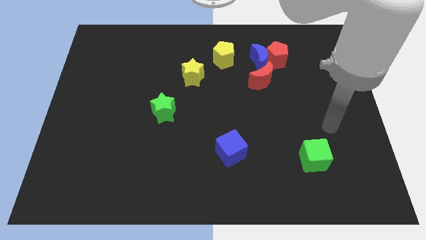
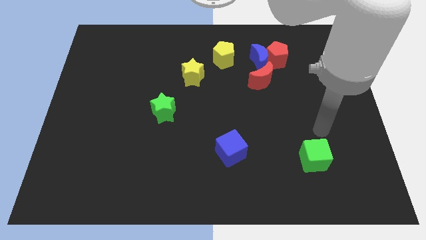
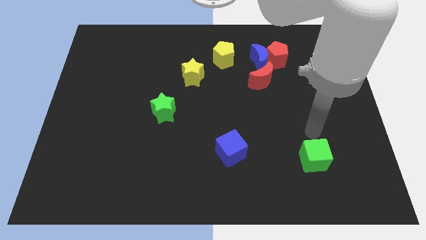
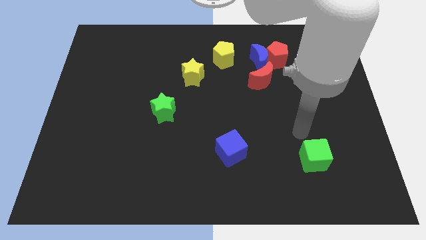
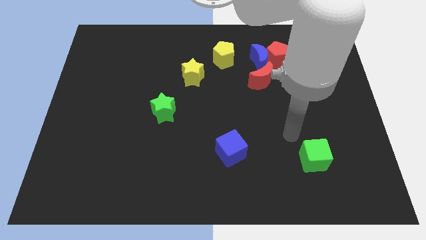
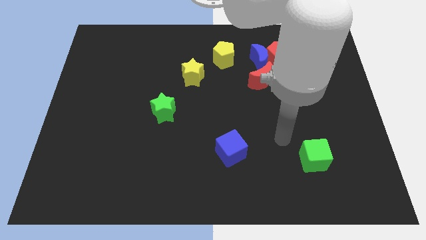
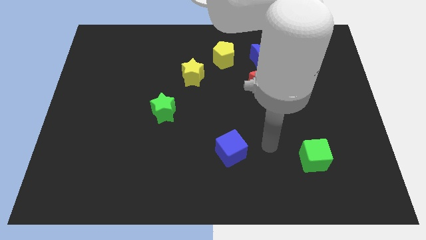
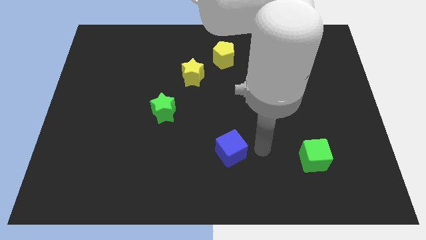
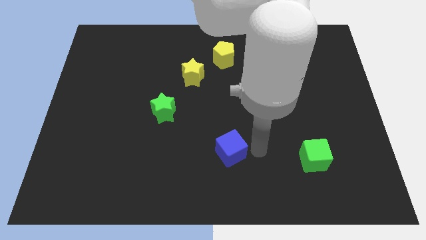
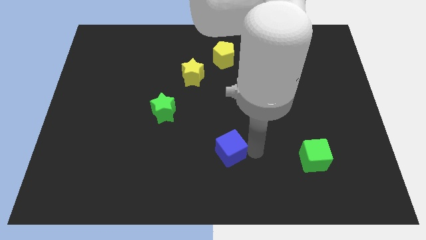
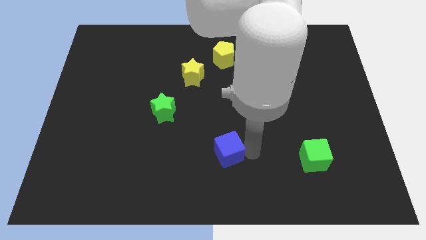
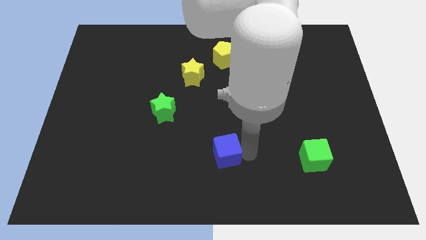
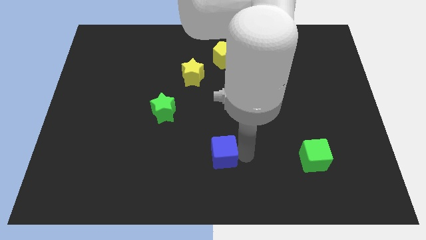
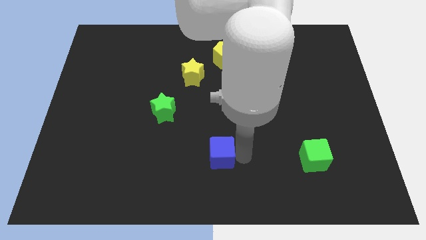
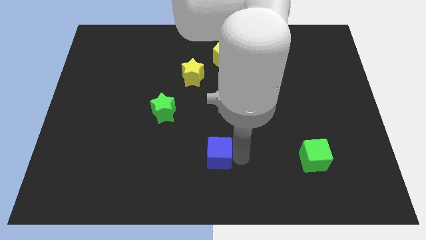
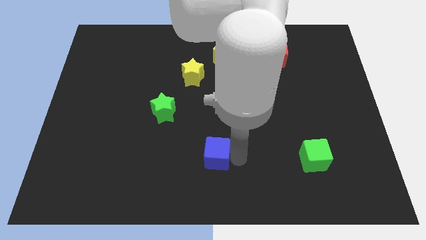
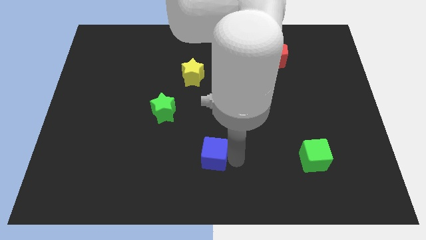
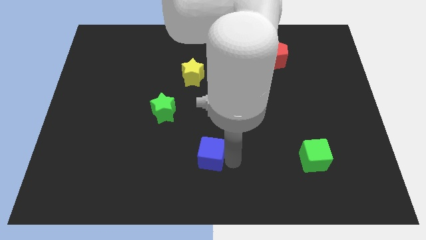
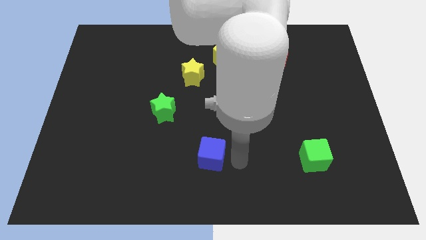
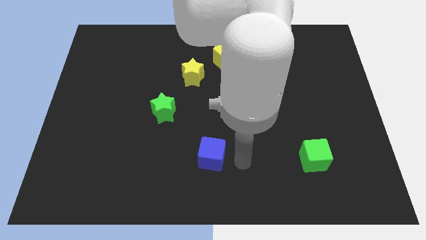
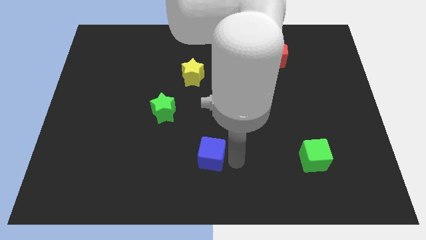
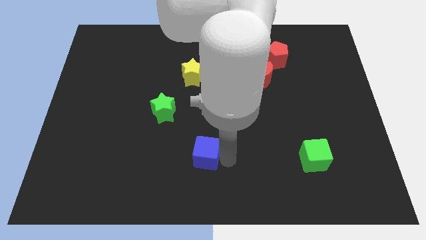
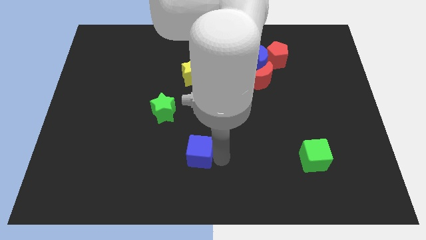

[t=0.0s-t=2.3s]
slightly push the blue cube to the left

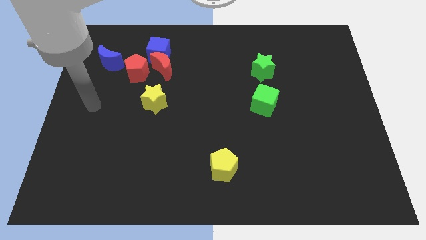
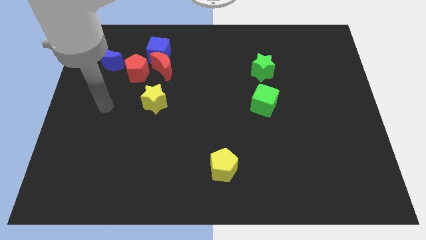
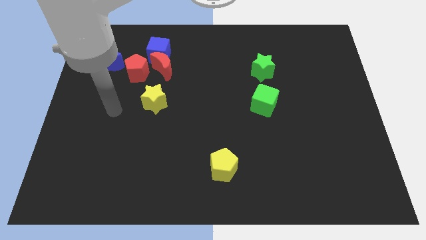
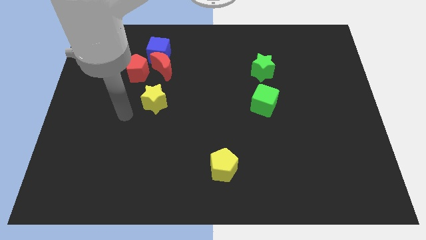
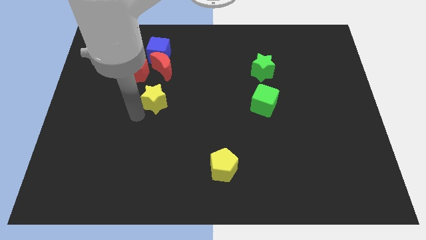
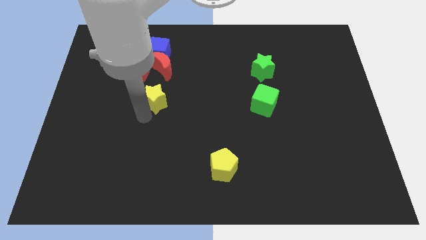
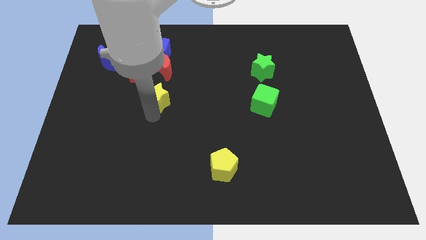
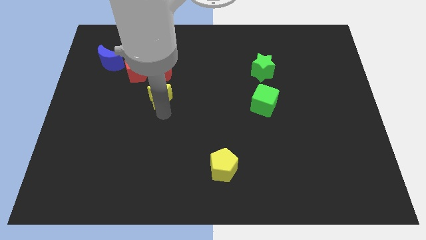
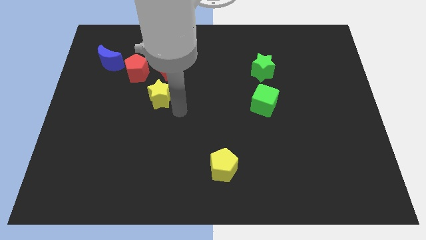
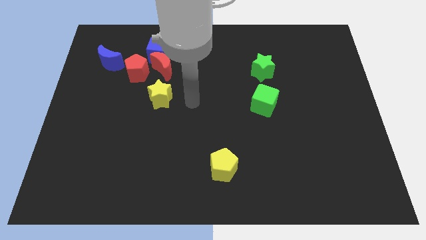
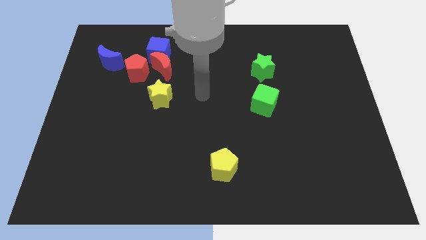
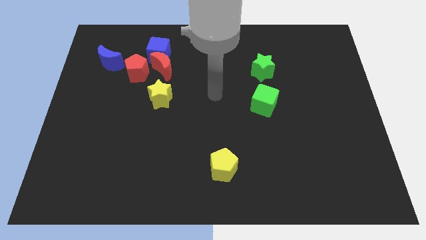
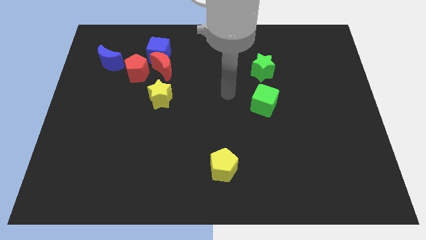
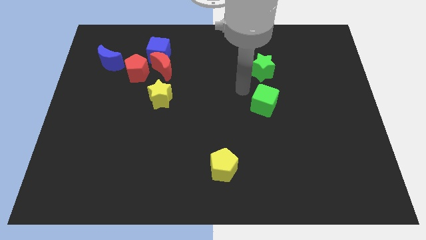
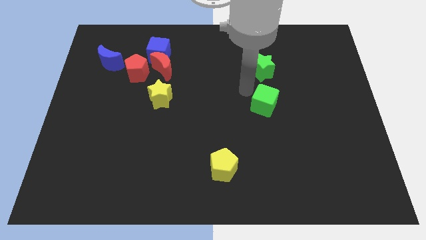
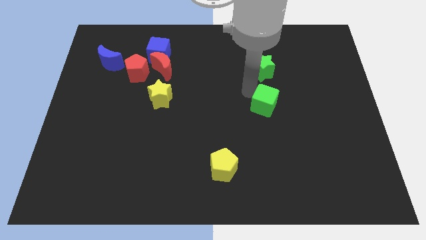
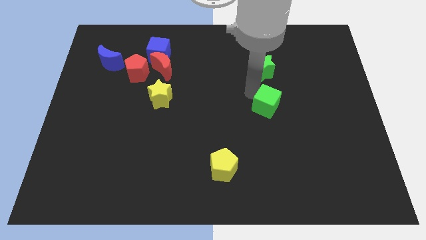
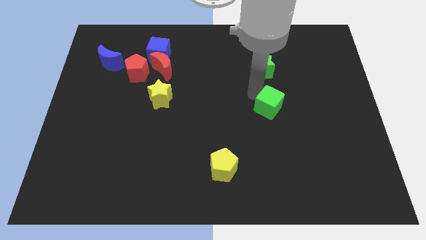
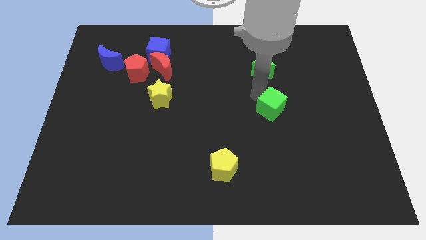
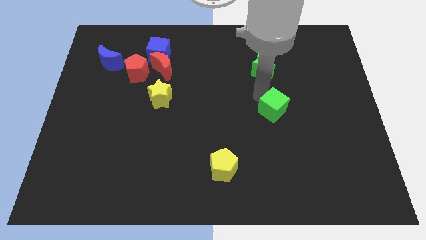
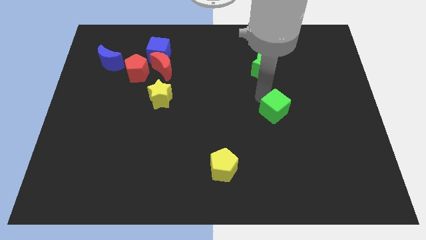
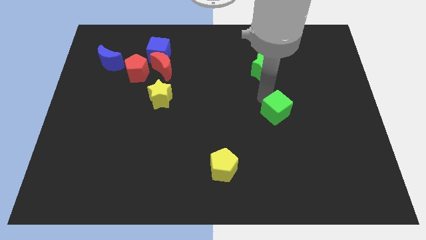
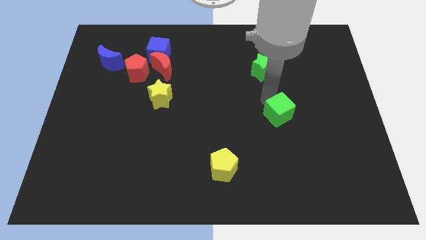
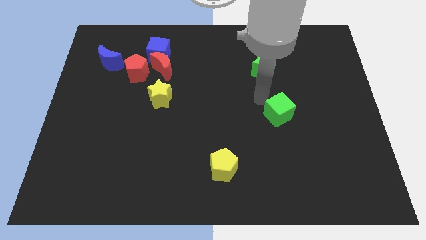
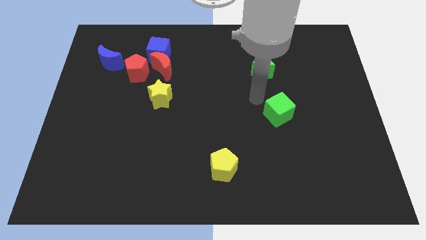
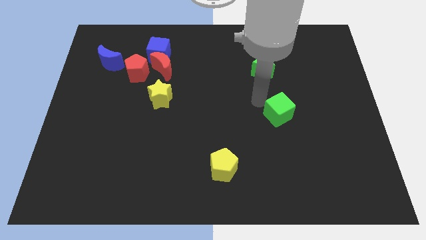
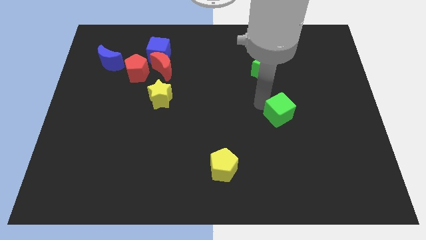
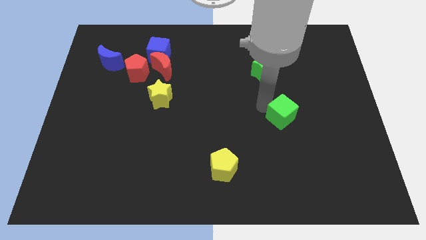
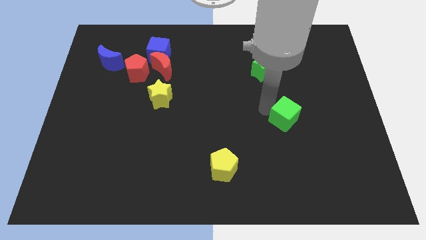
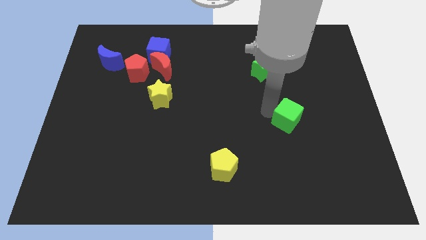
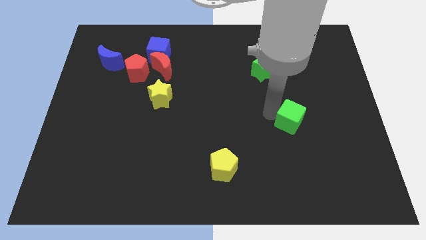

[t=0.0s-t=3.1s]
slightly move the green cube diagonally down and right

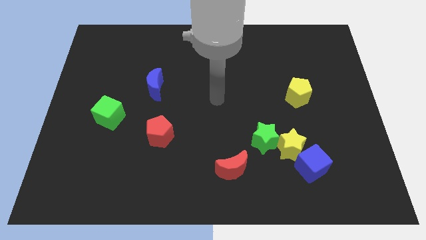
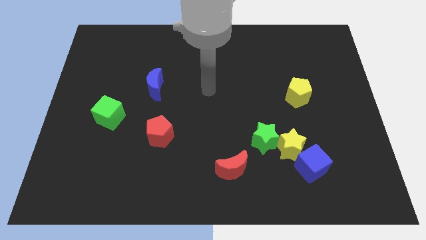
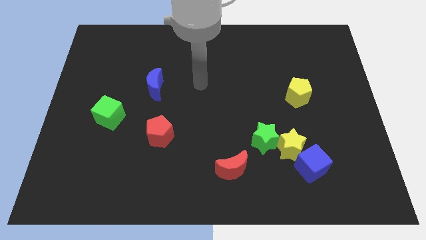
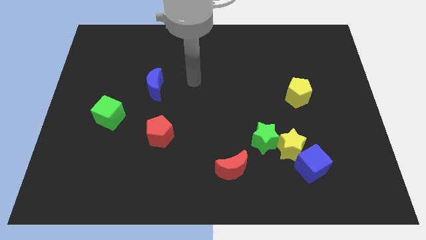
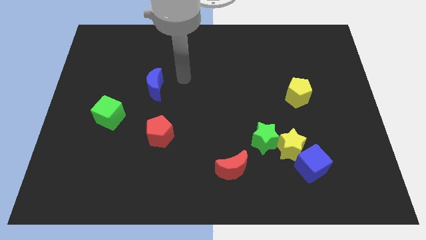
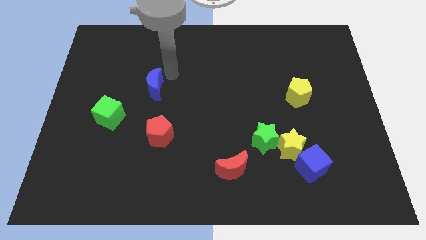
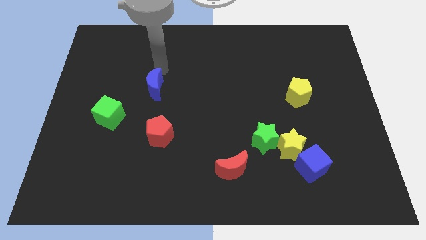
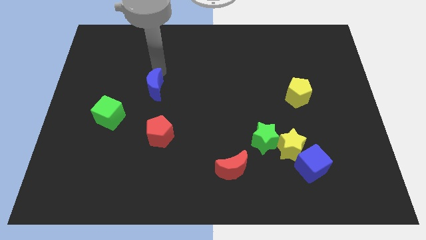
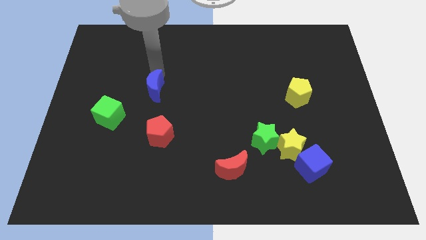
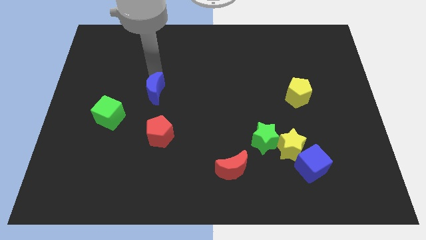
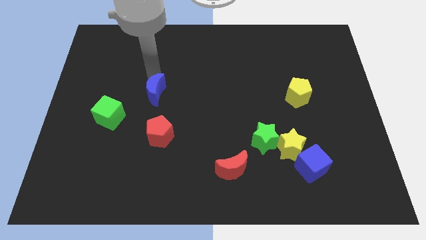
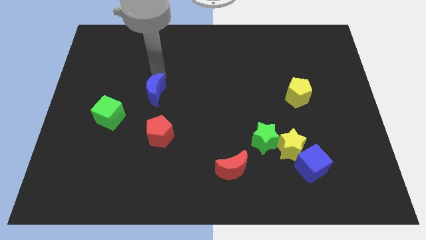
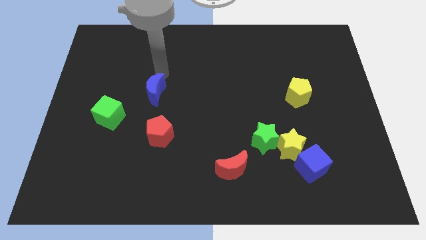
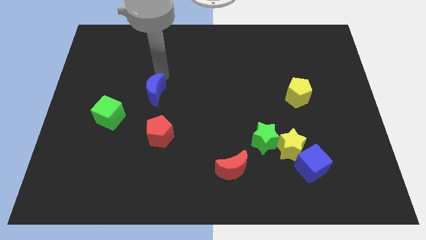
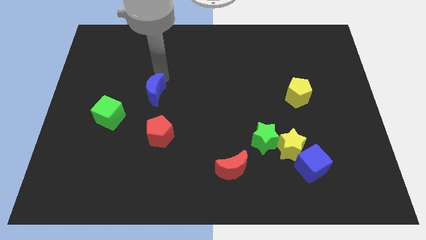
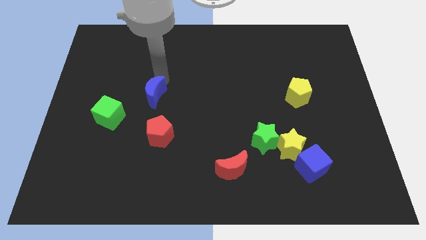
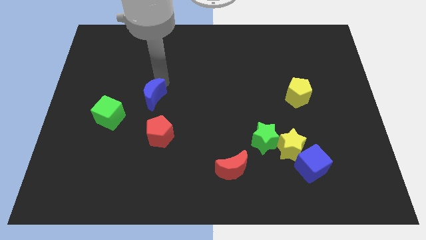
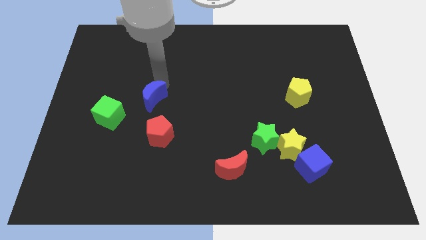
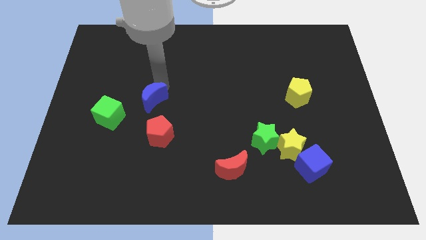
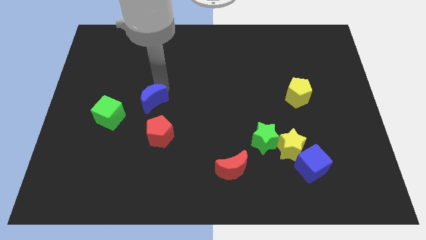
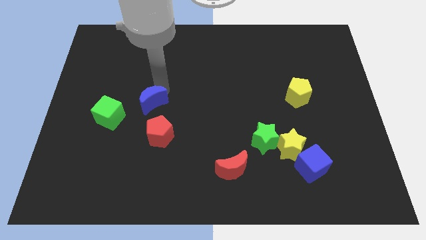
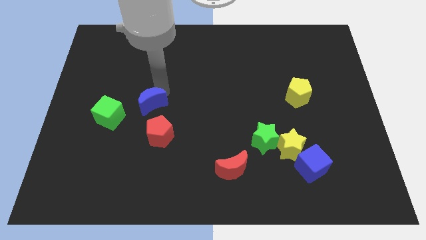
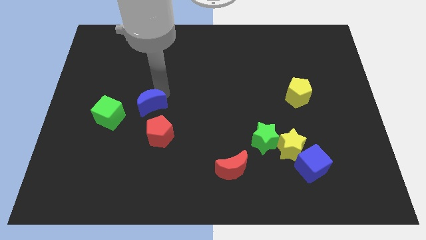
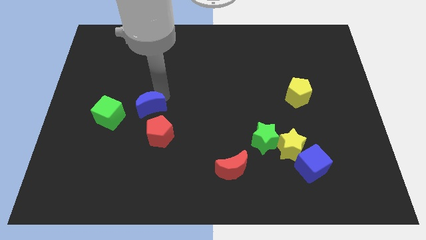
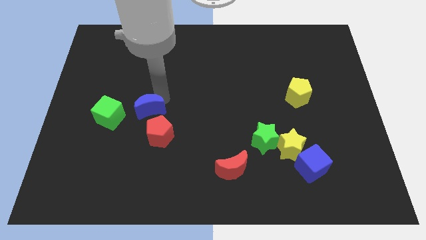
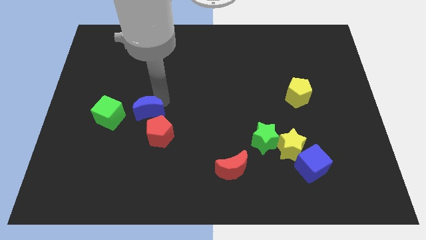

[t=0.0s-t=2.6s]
slide the blue moon down somewhat
